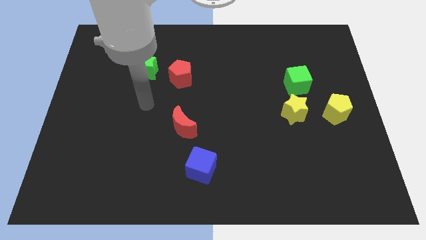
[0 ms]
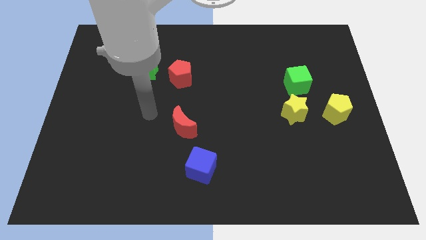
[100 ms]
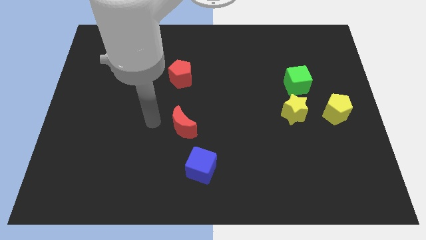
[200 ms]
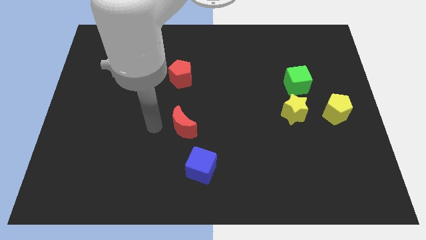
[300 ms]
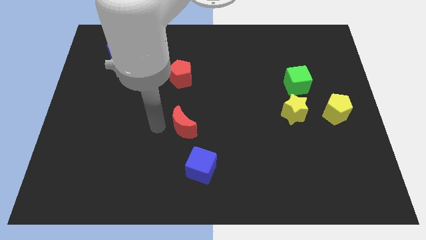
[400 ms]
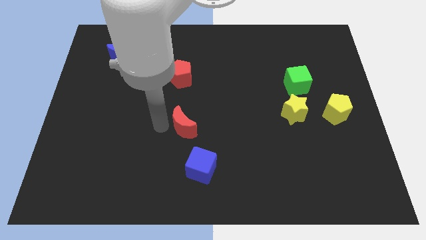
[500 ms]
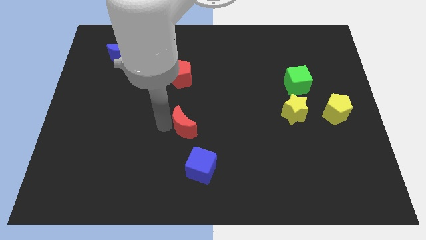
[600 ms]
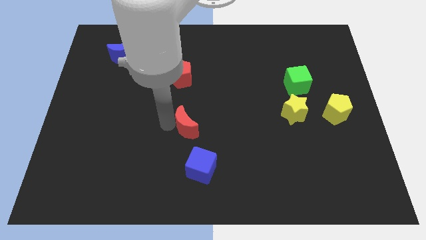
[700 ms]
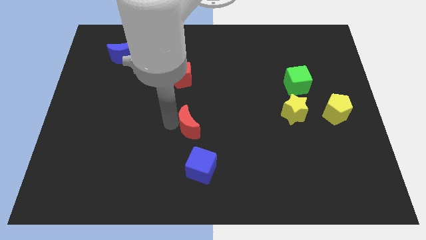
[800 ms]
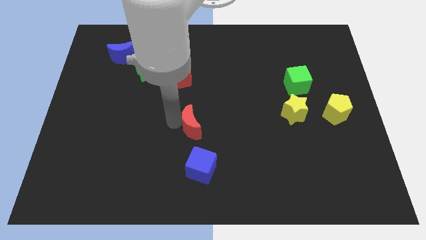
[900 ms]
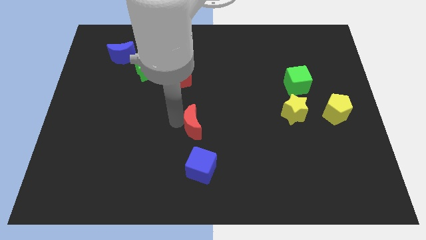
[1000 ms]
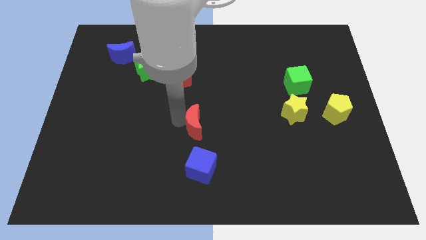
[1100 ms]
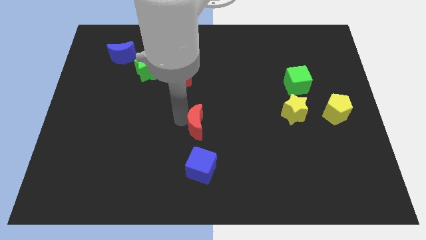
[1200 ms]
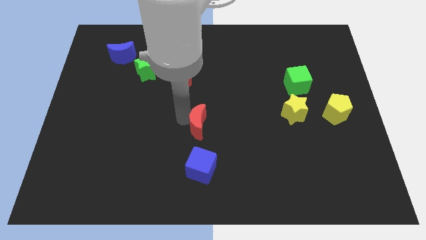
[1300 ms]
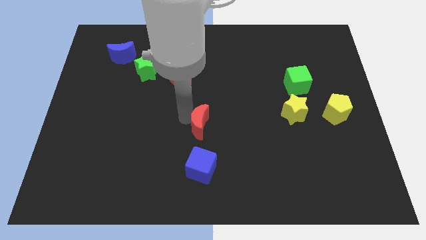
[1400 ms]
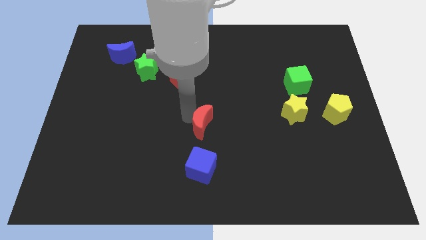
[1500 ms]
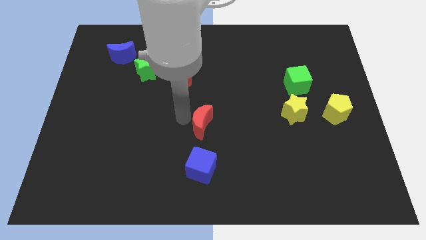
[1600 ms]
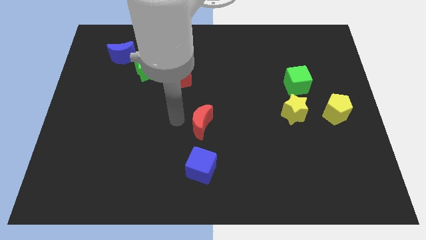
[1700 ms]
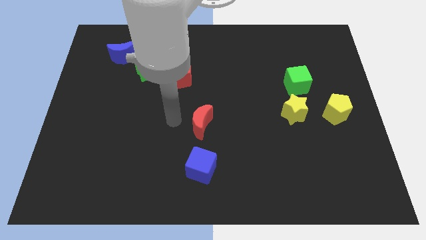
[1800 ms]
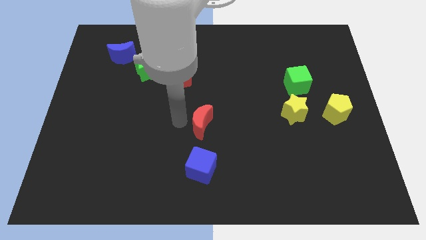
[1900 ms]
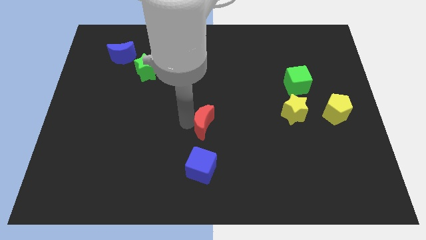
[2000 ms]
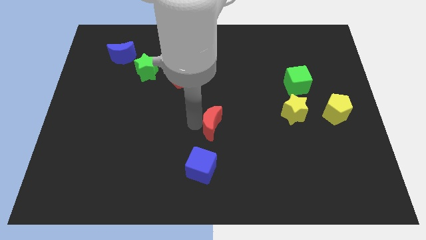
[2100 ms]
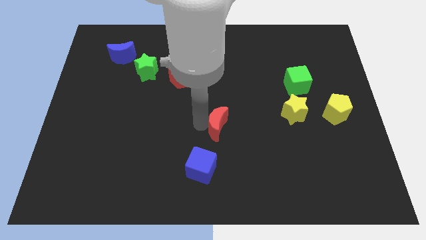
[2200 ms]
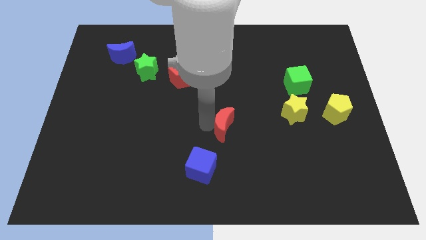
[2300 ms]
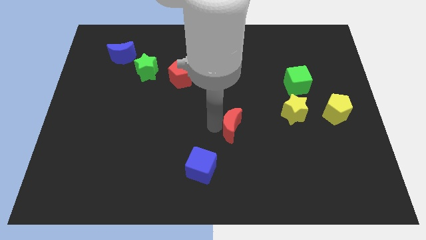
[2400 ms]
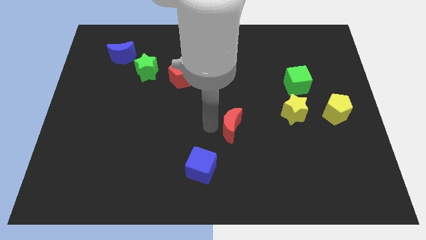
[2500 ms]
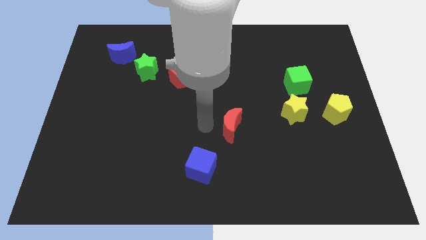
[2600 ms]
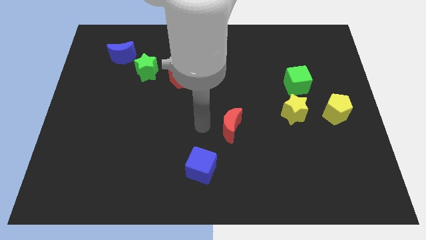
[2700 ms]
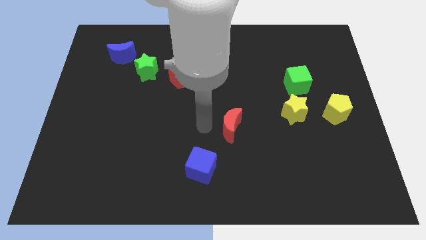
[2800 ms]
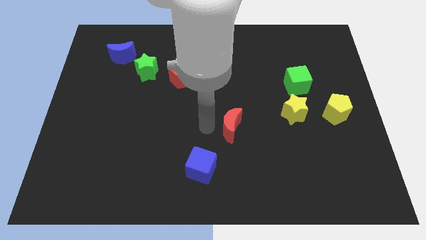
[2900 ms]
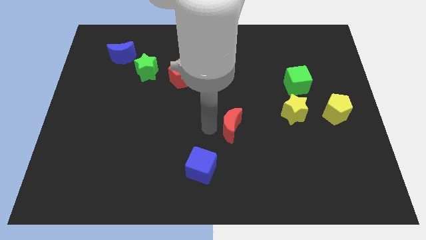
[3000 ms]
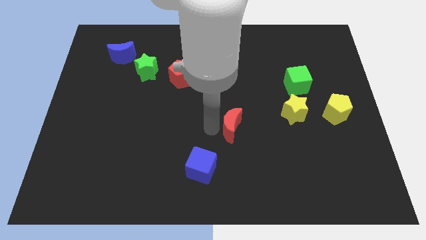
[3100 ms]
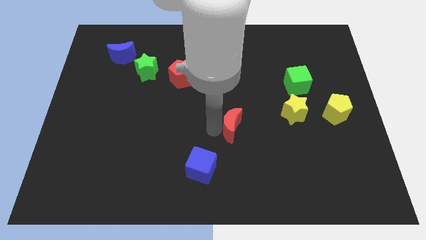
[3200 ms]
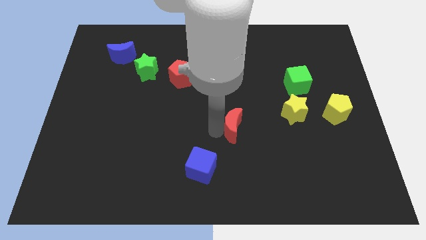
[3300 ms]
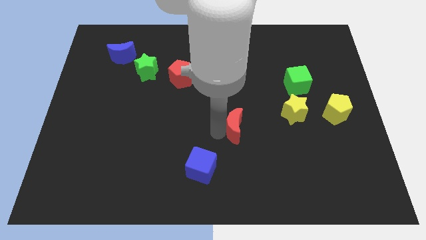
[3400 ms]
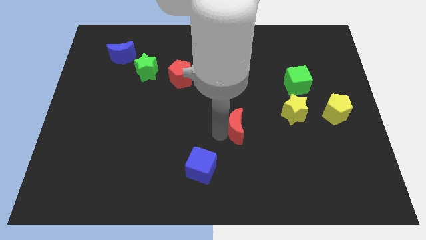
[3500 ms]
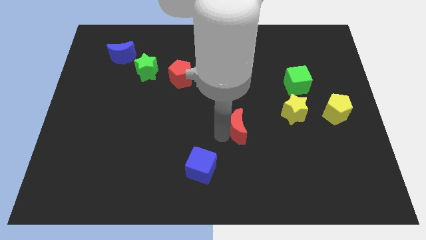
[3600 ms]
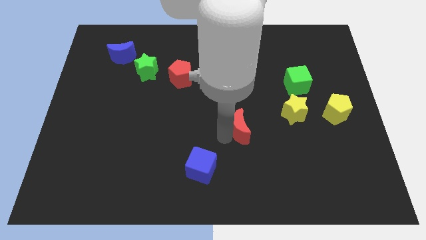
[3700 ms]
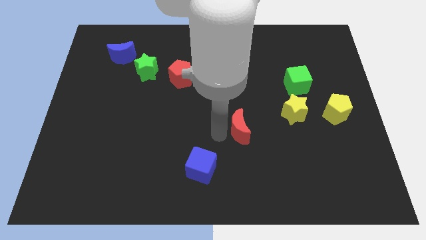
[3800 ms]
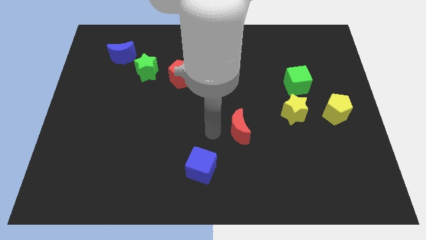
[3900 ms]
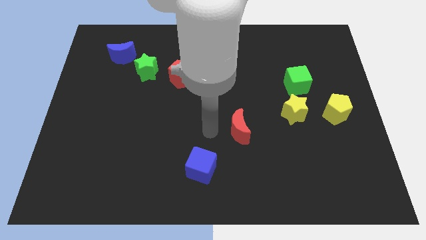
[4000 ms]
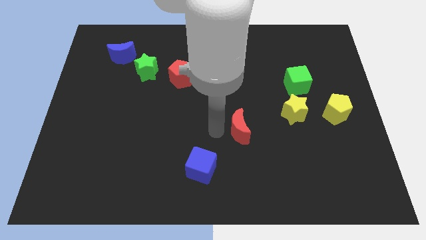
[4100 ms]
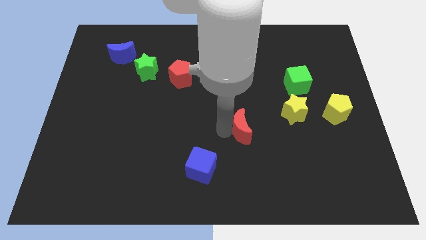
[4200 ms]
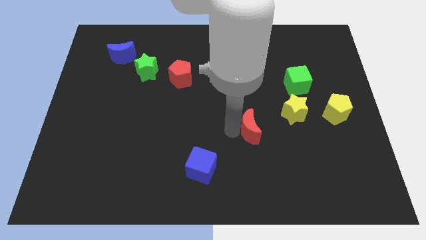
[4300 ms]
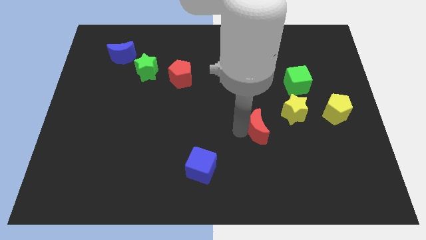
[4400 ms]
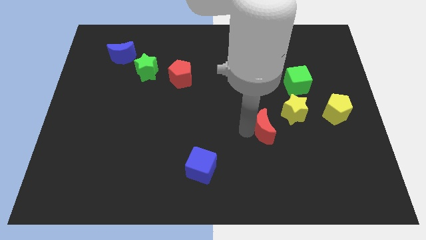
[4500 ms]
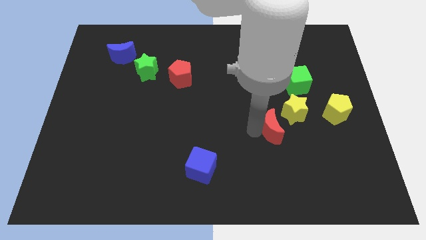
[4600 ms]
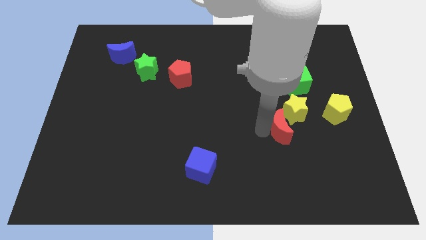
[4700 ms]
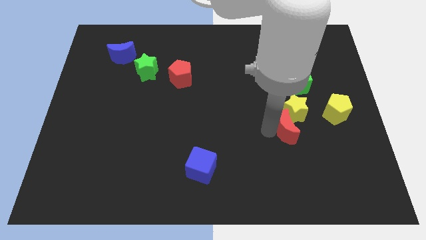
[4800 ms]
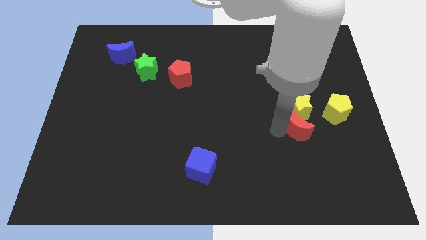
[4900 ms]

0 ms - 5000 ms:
push the red moon to the bottom right of the yellow star

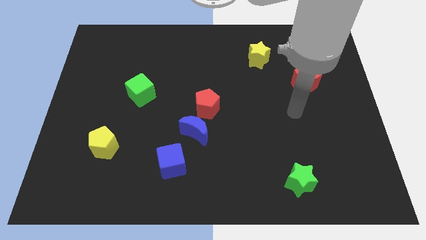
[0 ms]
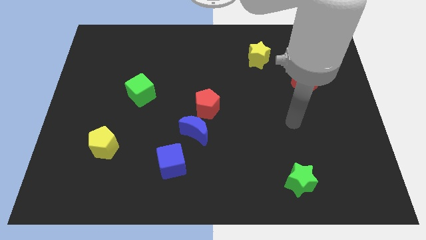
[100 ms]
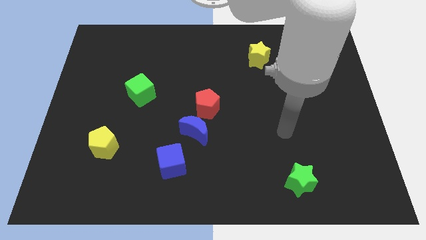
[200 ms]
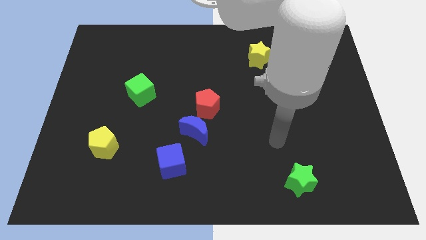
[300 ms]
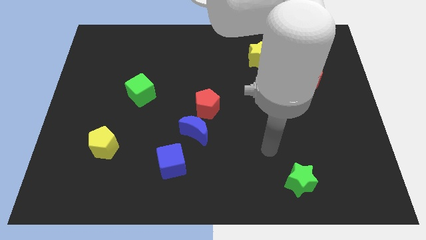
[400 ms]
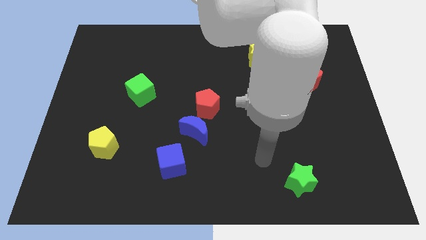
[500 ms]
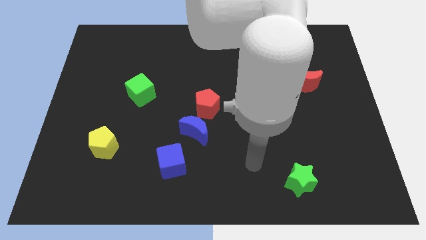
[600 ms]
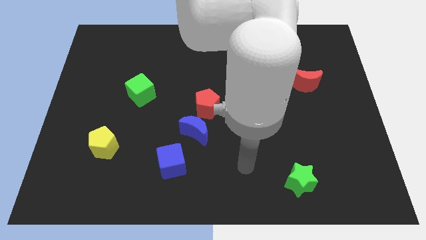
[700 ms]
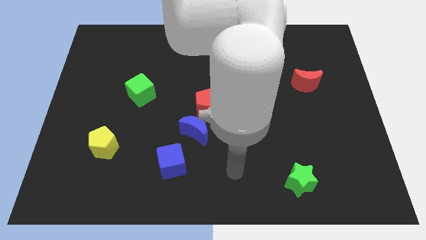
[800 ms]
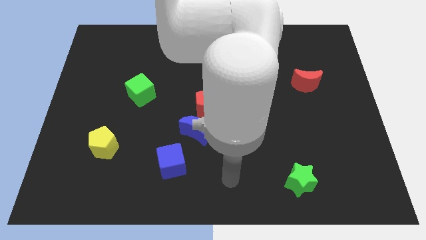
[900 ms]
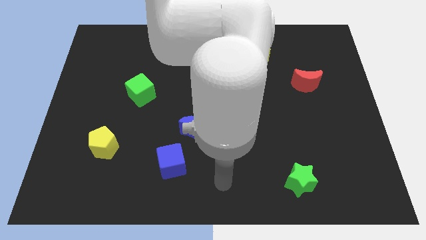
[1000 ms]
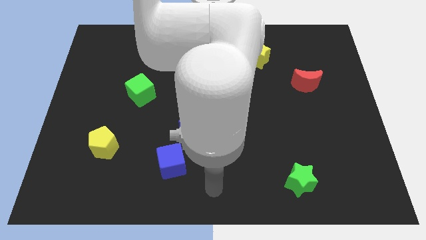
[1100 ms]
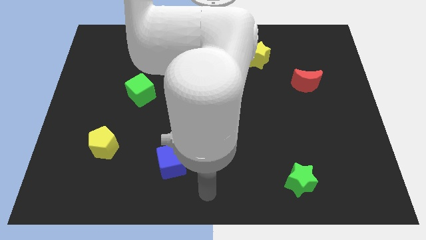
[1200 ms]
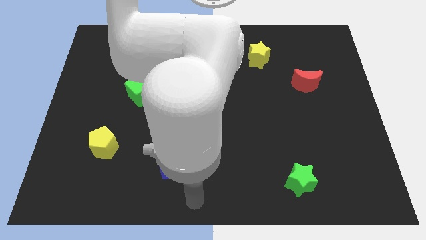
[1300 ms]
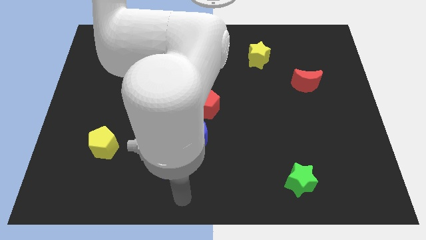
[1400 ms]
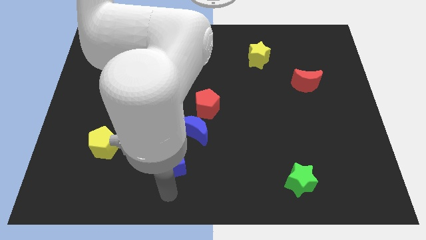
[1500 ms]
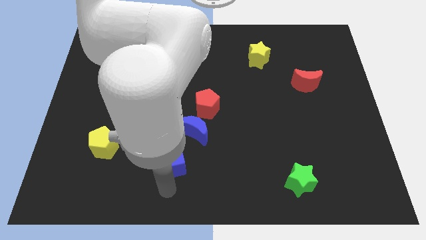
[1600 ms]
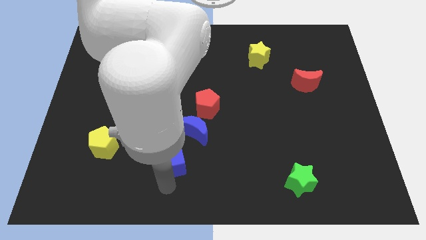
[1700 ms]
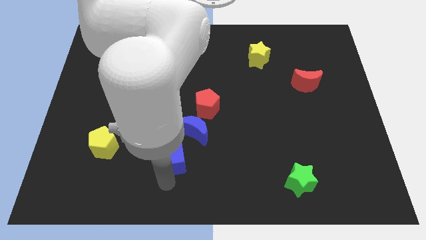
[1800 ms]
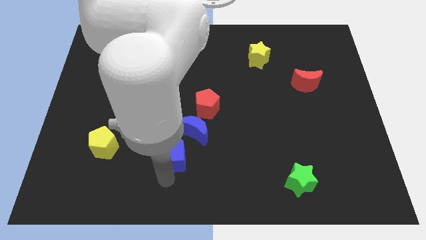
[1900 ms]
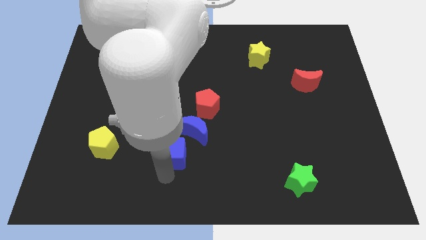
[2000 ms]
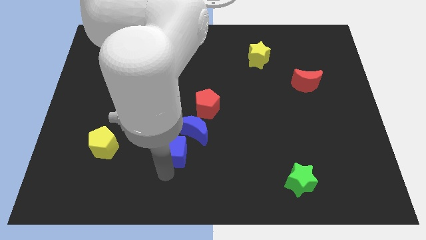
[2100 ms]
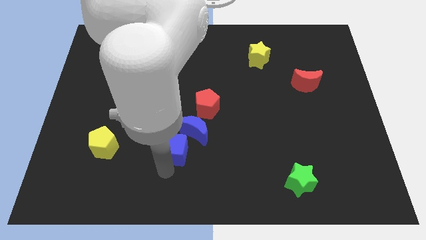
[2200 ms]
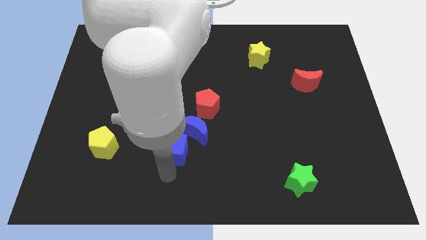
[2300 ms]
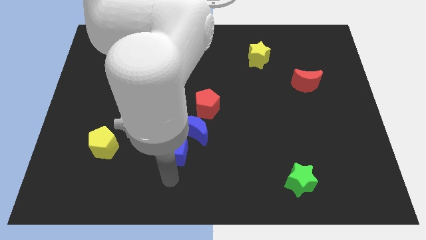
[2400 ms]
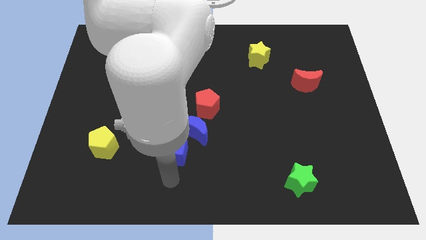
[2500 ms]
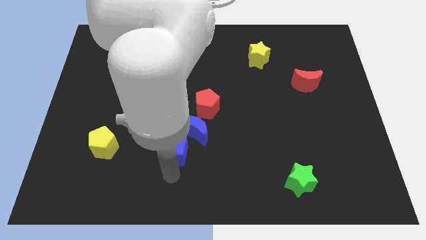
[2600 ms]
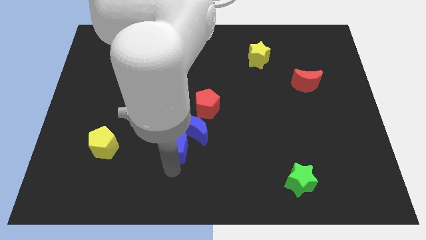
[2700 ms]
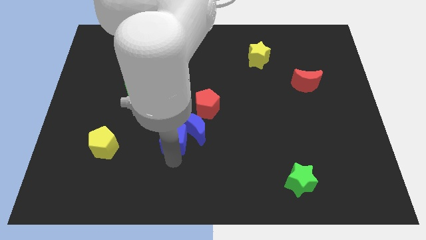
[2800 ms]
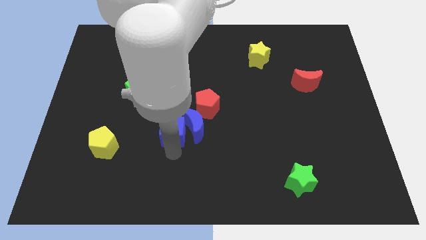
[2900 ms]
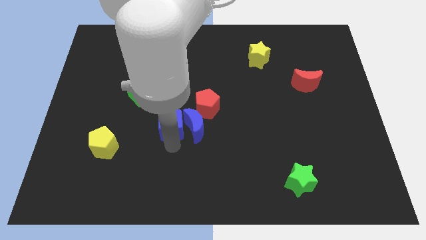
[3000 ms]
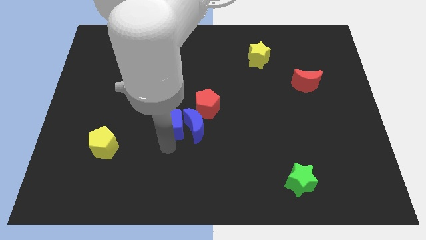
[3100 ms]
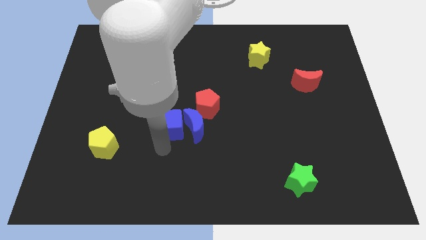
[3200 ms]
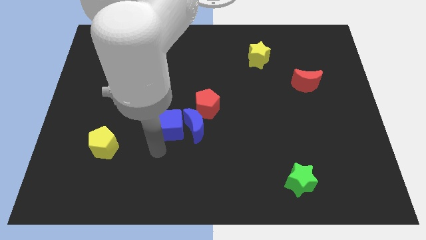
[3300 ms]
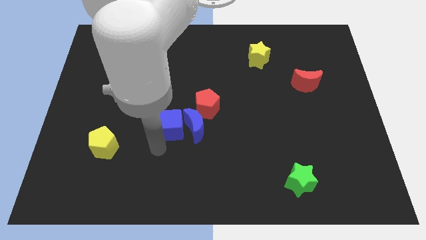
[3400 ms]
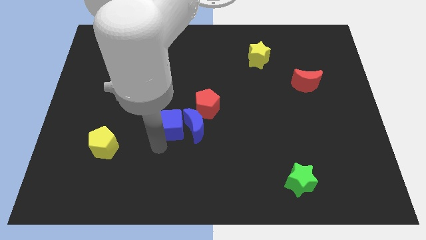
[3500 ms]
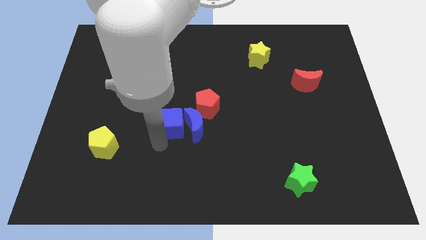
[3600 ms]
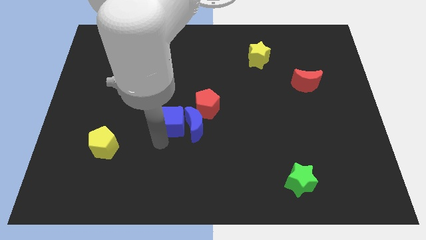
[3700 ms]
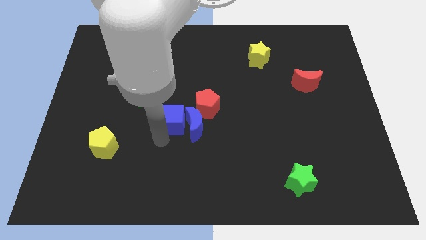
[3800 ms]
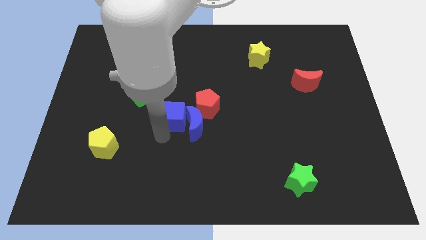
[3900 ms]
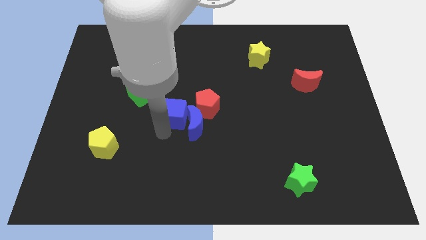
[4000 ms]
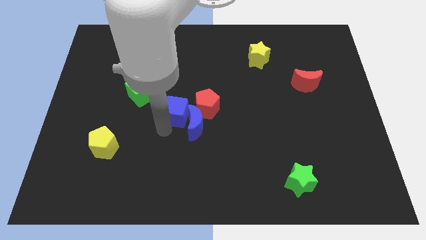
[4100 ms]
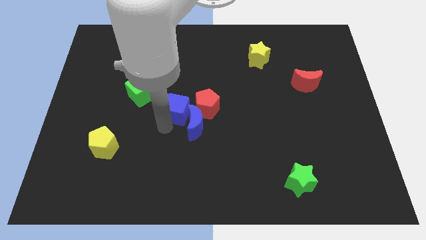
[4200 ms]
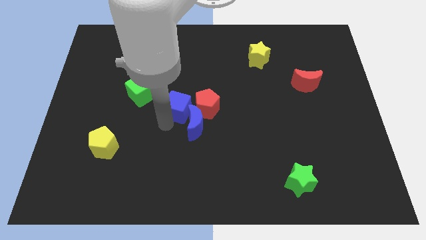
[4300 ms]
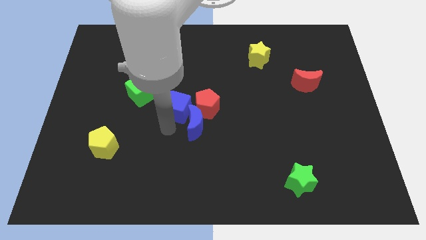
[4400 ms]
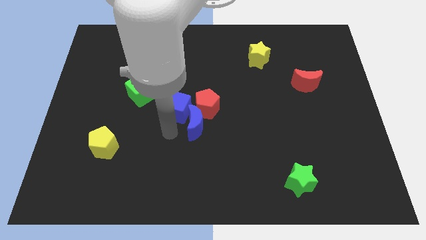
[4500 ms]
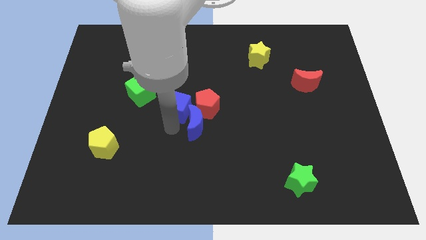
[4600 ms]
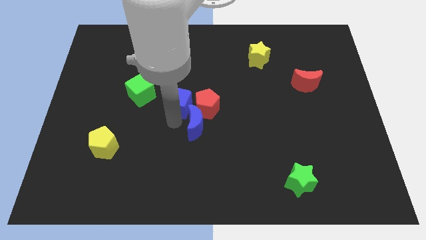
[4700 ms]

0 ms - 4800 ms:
move the blue cube to the right side of the green cube
